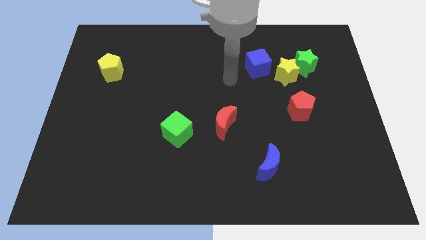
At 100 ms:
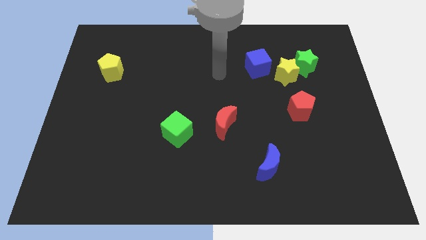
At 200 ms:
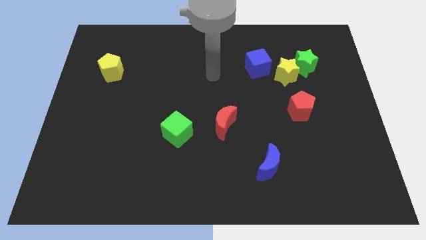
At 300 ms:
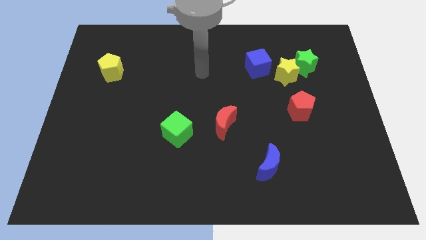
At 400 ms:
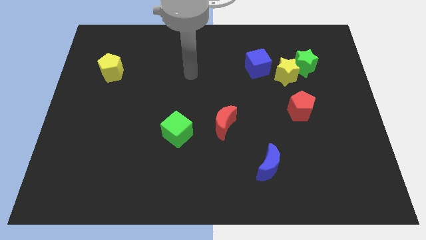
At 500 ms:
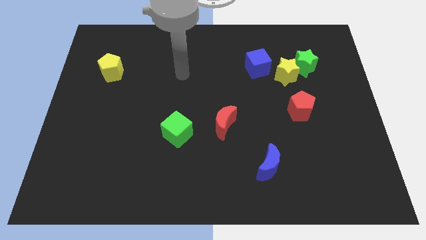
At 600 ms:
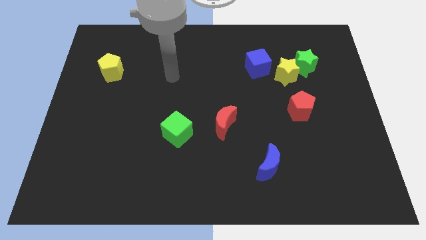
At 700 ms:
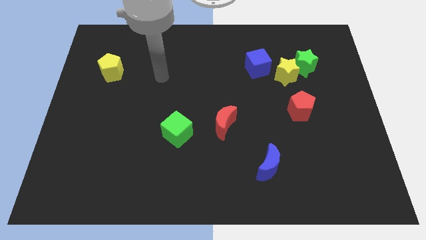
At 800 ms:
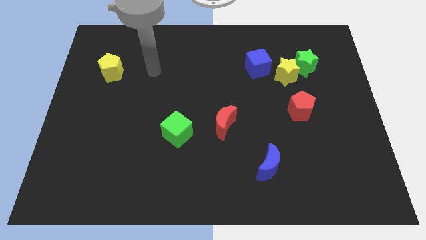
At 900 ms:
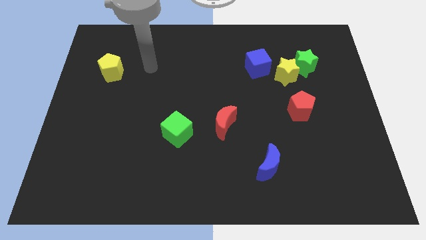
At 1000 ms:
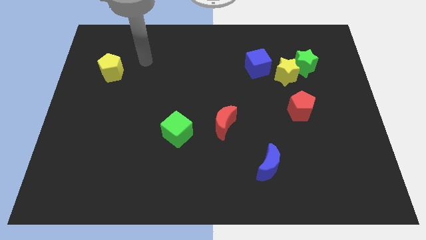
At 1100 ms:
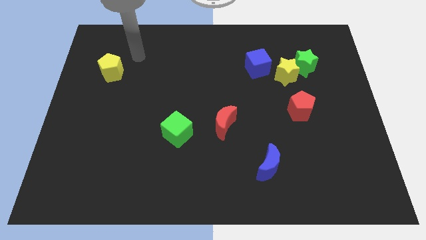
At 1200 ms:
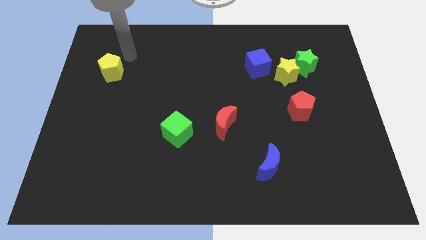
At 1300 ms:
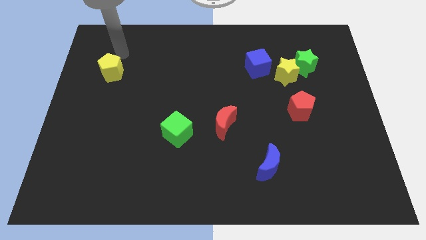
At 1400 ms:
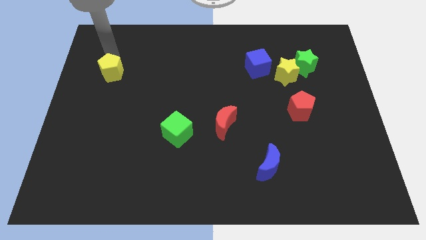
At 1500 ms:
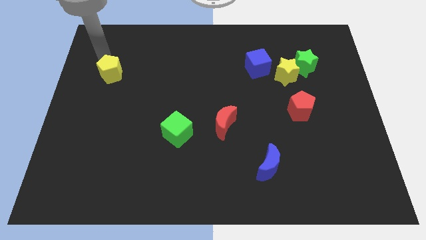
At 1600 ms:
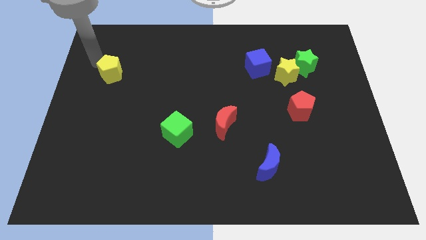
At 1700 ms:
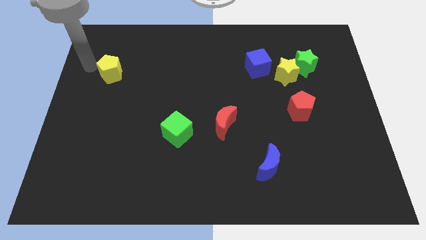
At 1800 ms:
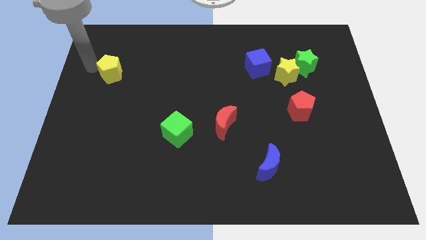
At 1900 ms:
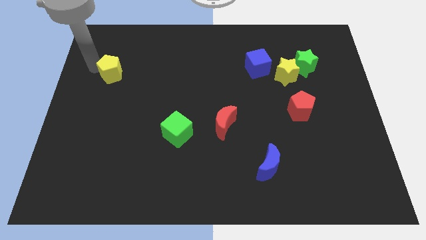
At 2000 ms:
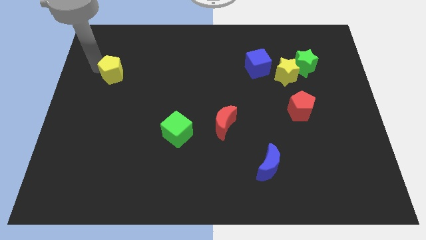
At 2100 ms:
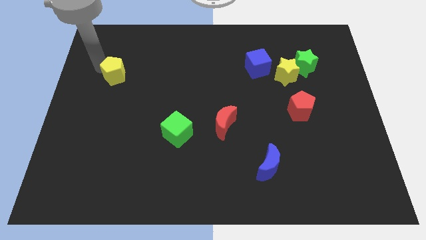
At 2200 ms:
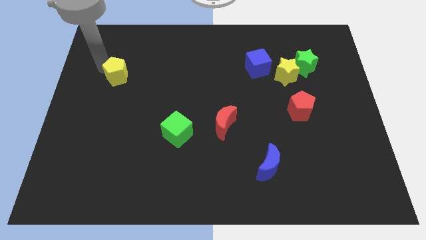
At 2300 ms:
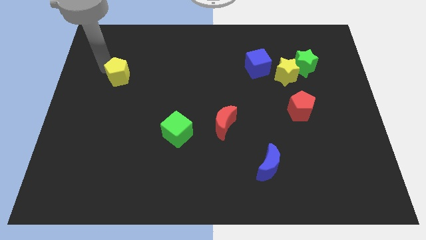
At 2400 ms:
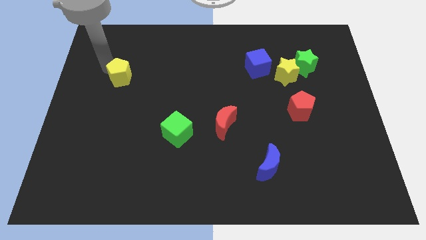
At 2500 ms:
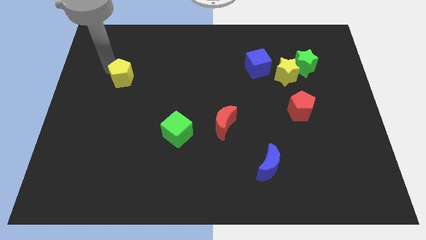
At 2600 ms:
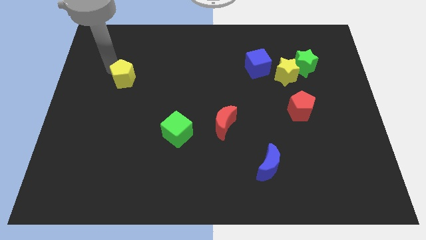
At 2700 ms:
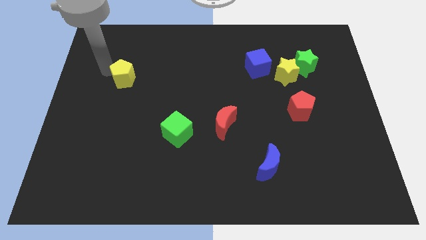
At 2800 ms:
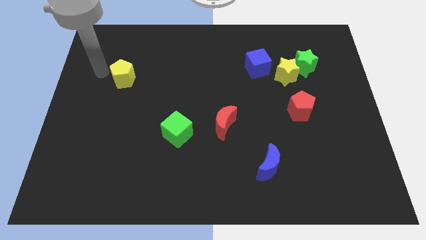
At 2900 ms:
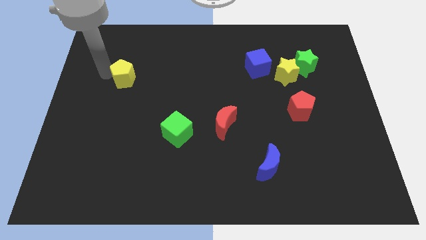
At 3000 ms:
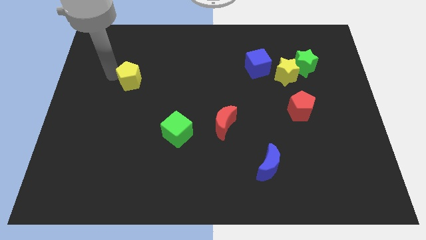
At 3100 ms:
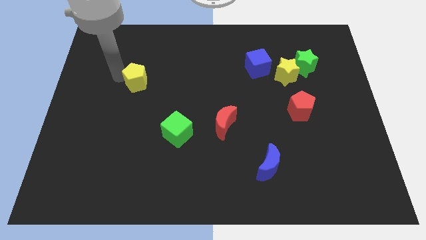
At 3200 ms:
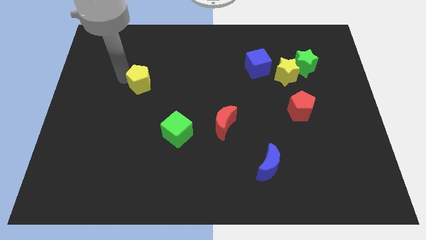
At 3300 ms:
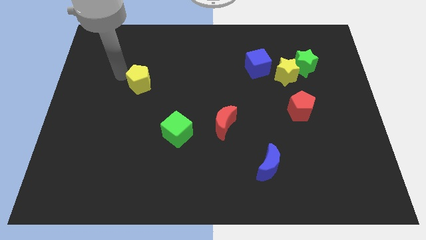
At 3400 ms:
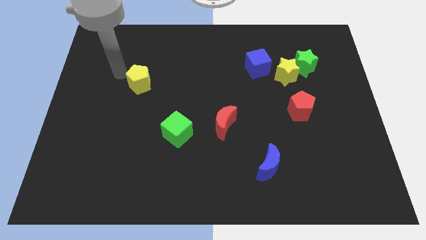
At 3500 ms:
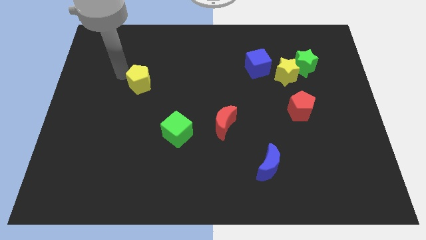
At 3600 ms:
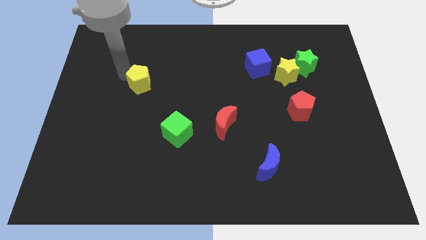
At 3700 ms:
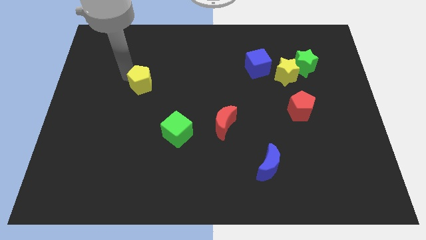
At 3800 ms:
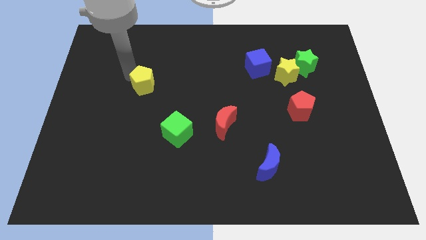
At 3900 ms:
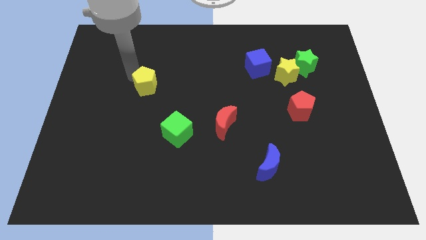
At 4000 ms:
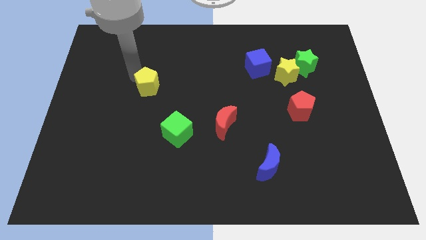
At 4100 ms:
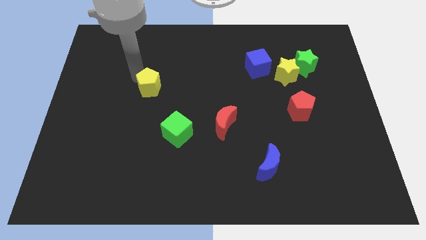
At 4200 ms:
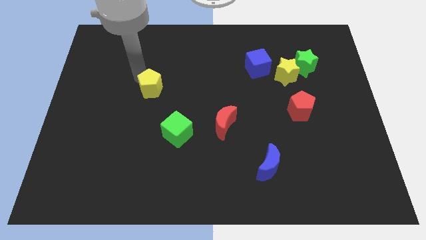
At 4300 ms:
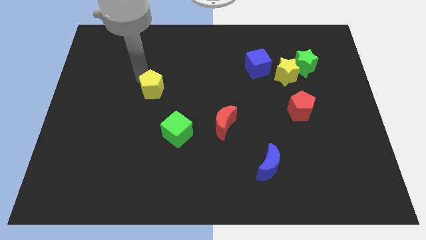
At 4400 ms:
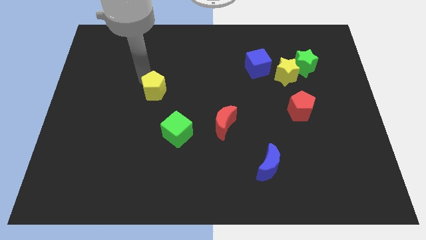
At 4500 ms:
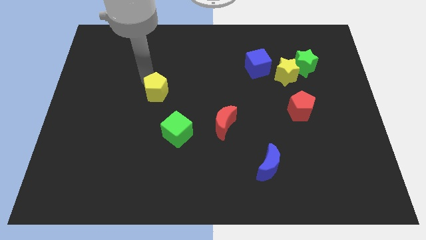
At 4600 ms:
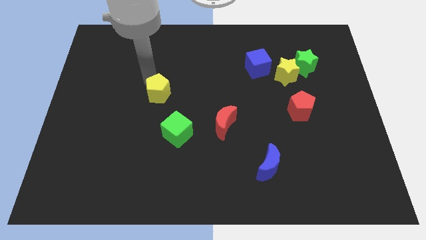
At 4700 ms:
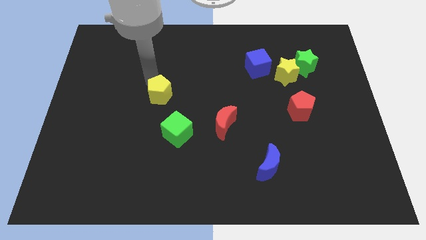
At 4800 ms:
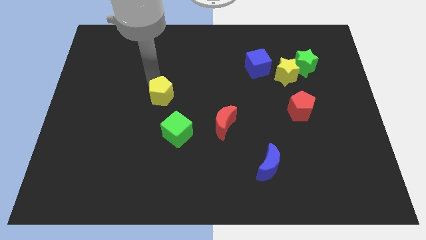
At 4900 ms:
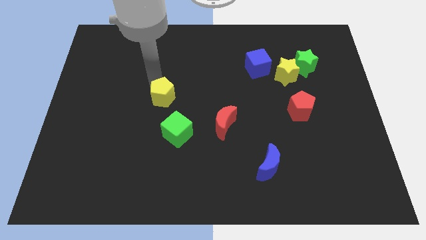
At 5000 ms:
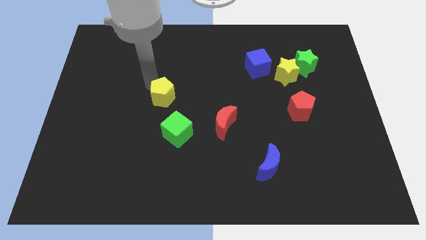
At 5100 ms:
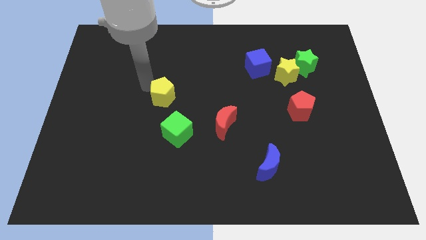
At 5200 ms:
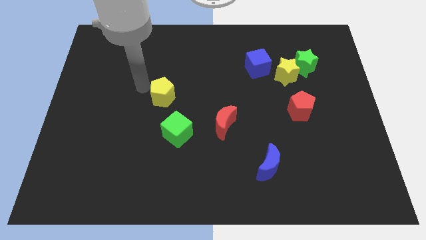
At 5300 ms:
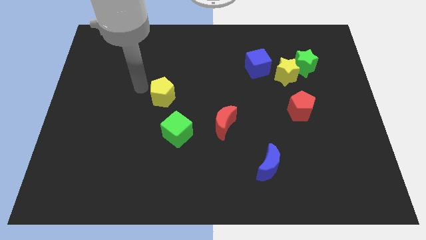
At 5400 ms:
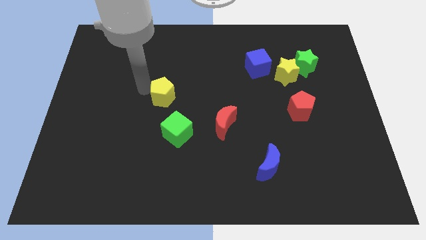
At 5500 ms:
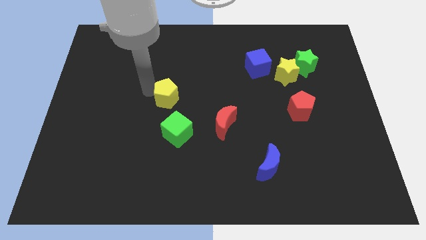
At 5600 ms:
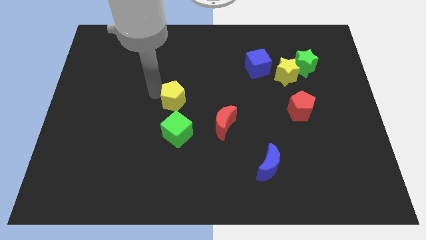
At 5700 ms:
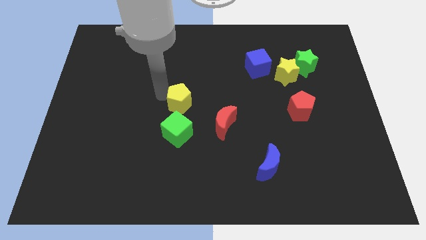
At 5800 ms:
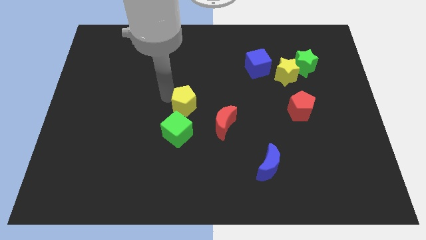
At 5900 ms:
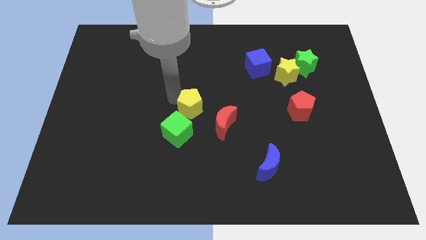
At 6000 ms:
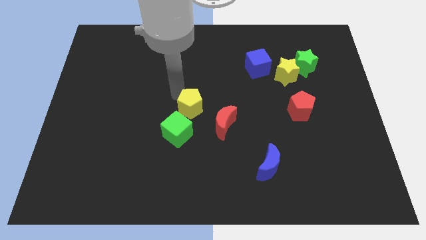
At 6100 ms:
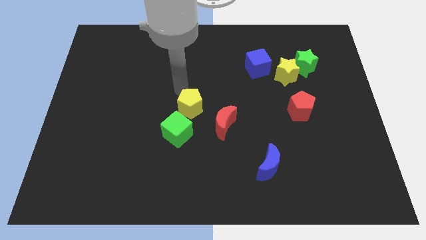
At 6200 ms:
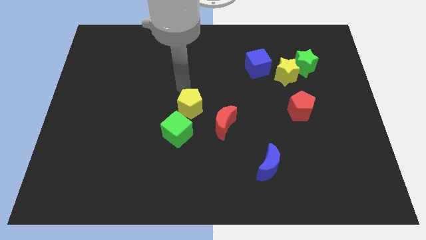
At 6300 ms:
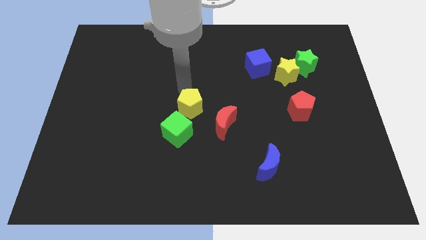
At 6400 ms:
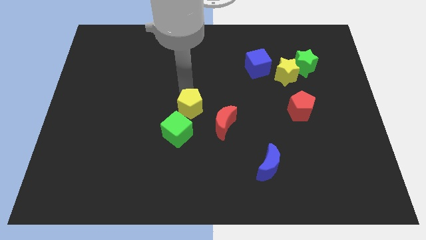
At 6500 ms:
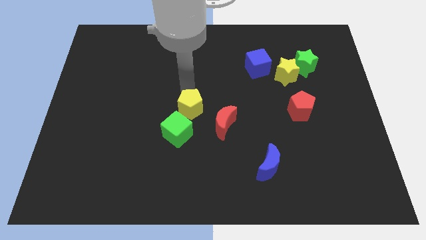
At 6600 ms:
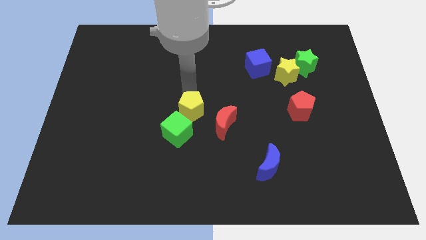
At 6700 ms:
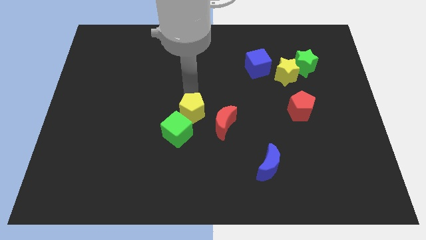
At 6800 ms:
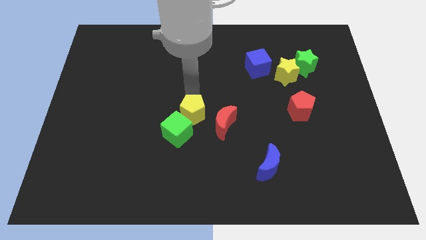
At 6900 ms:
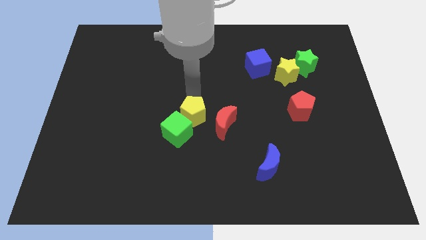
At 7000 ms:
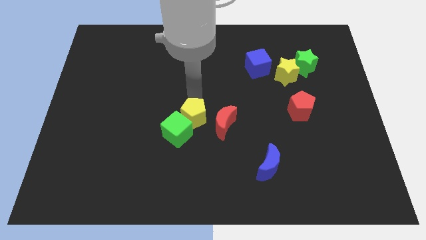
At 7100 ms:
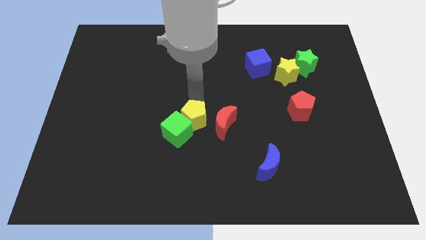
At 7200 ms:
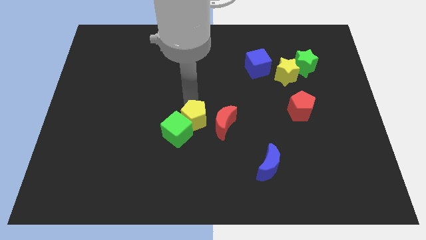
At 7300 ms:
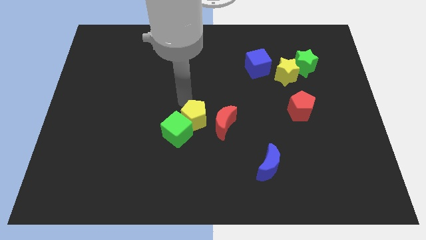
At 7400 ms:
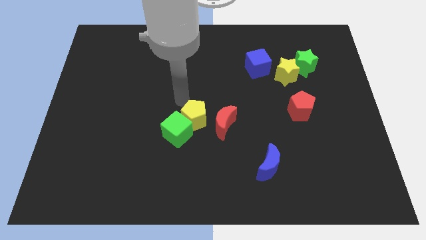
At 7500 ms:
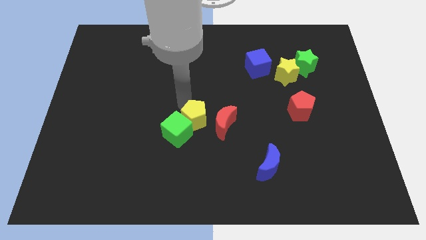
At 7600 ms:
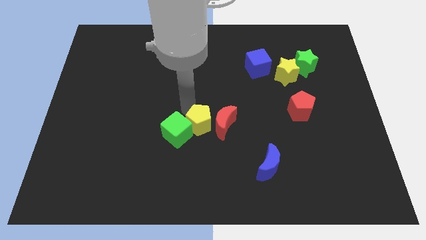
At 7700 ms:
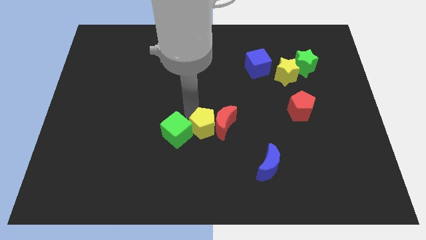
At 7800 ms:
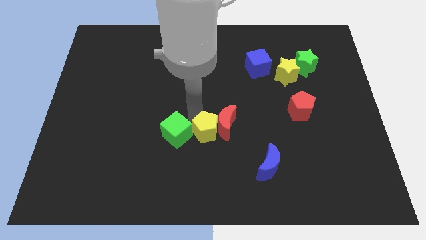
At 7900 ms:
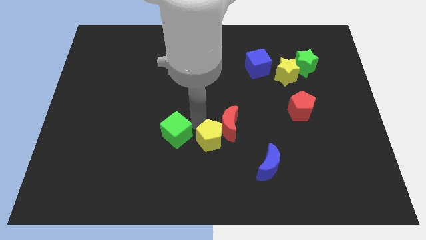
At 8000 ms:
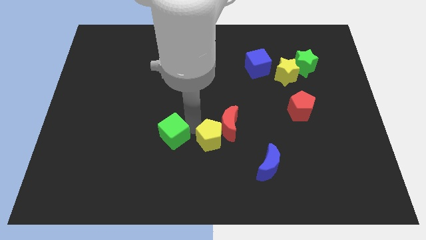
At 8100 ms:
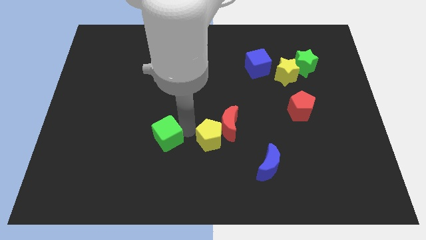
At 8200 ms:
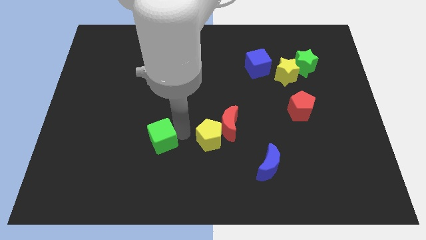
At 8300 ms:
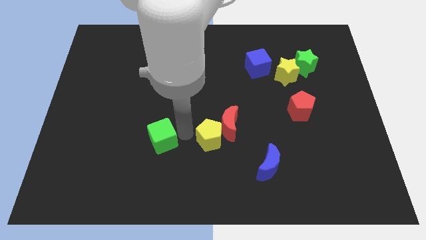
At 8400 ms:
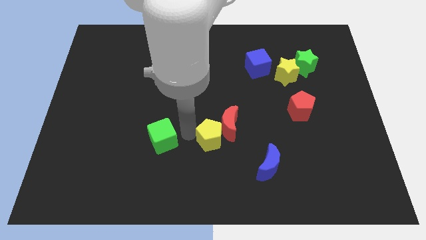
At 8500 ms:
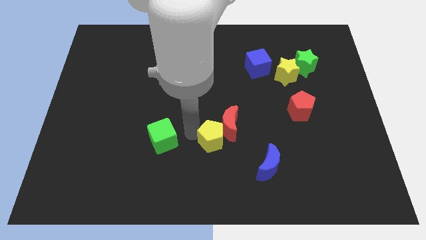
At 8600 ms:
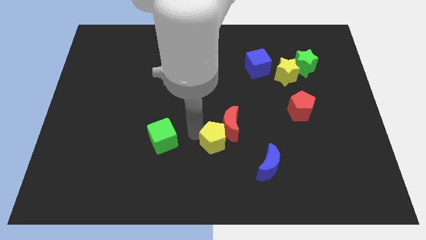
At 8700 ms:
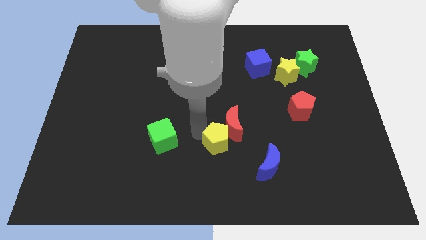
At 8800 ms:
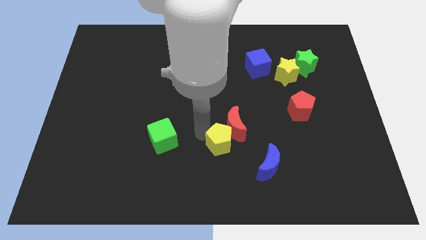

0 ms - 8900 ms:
move the yellow pentagon diagonally up and to the left of the blue moon
